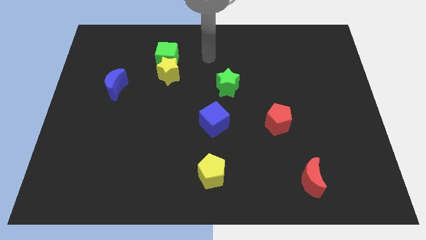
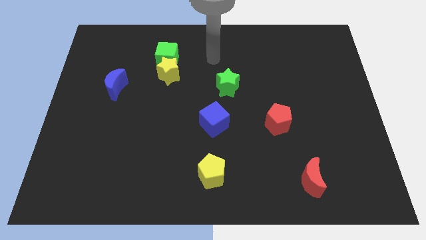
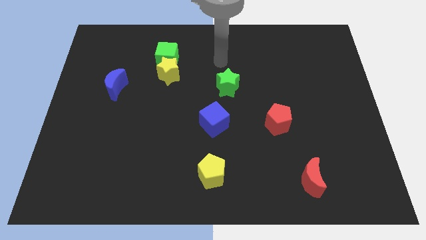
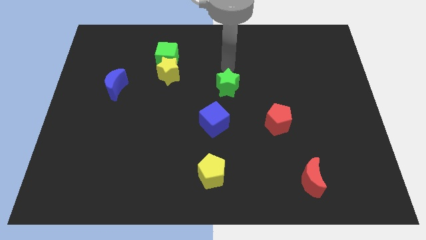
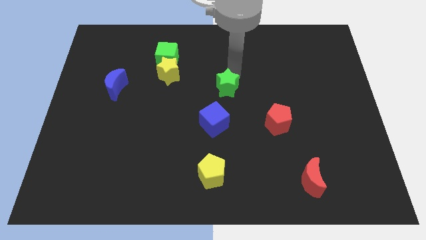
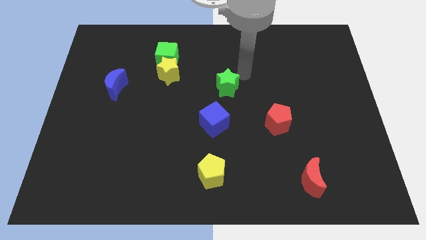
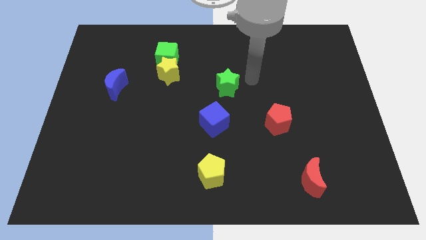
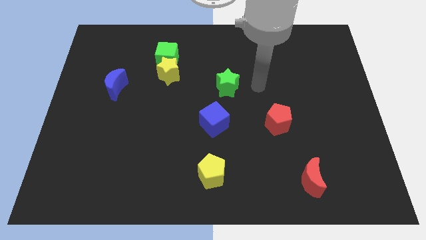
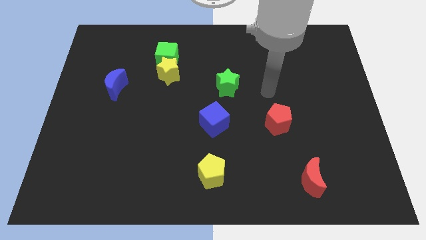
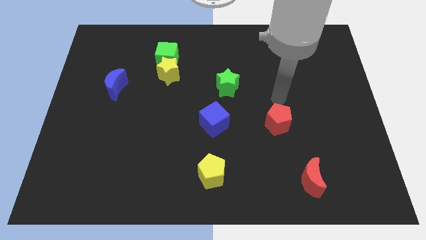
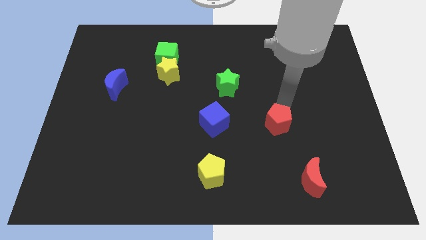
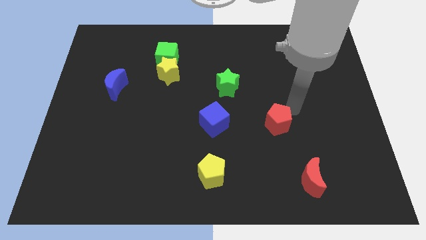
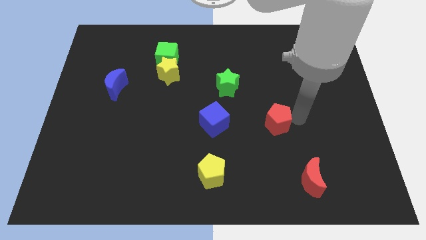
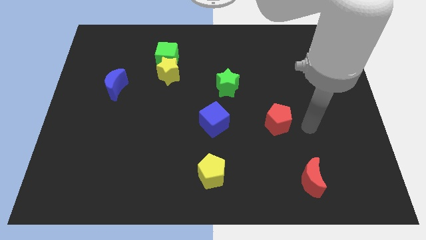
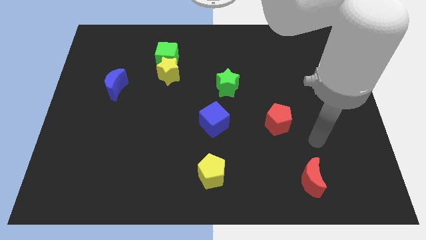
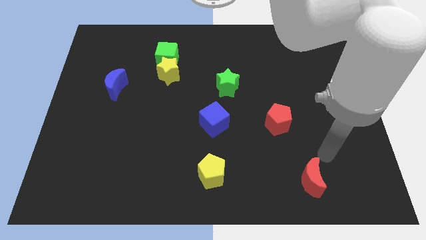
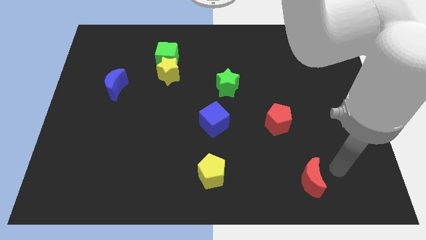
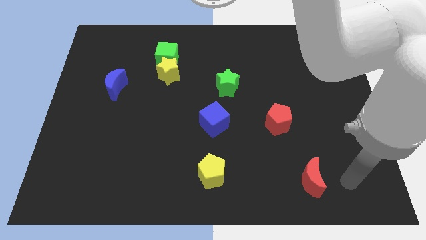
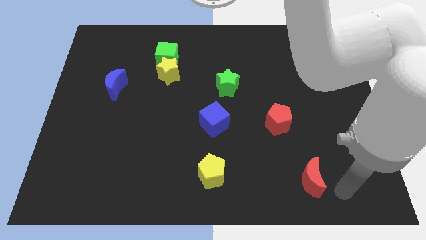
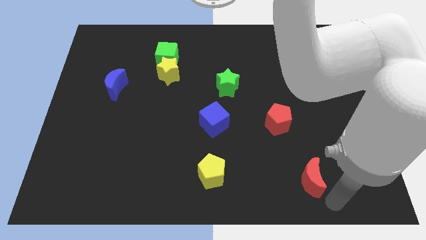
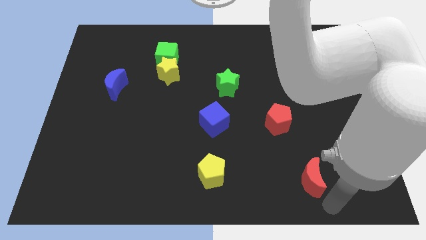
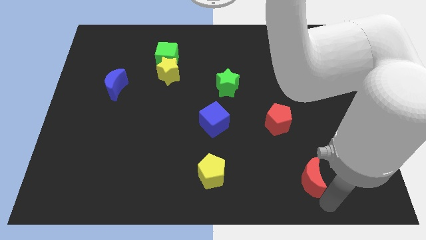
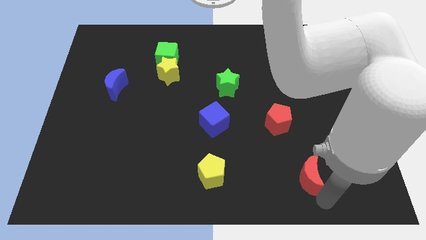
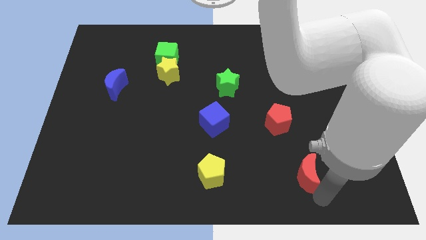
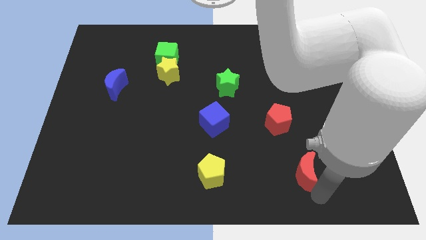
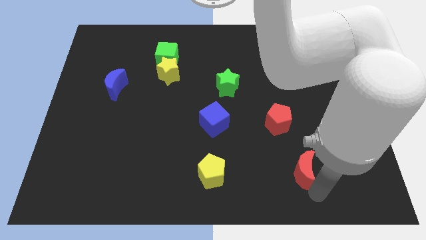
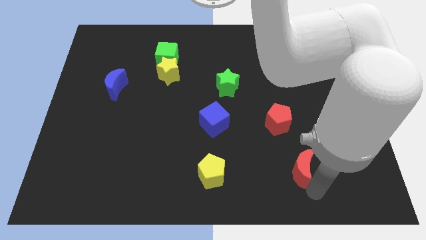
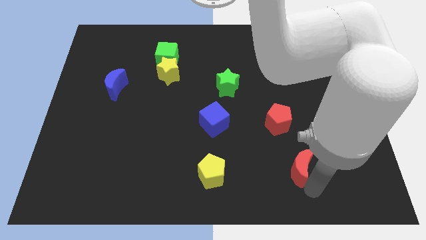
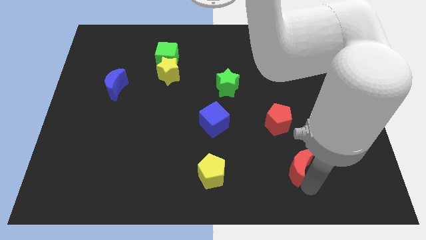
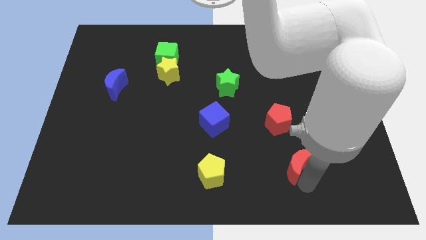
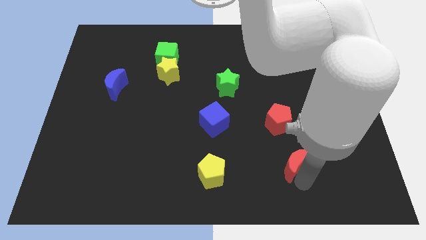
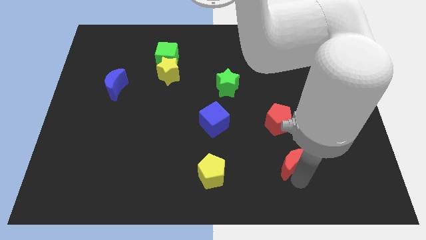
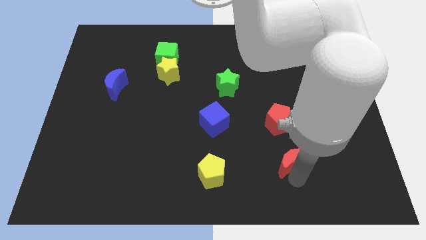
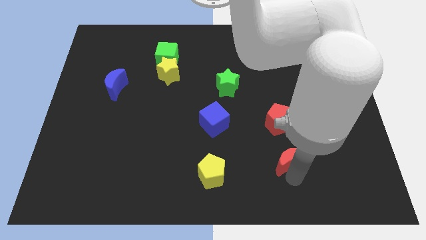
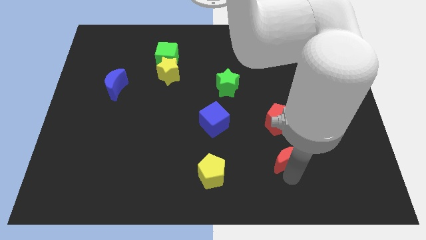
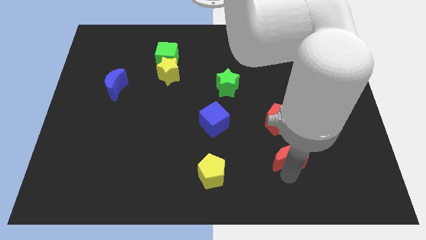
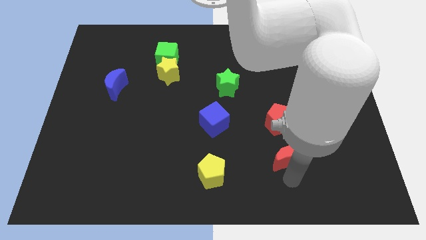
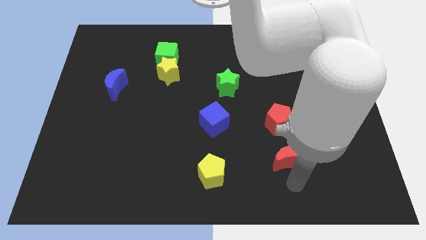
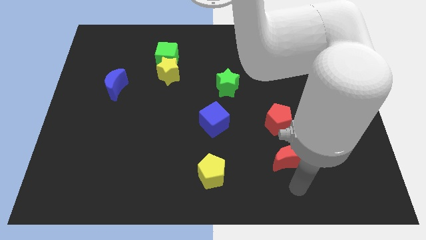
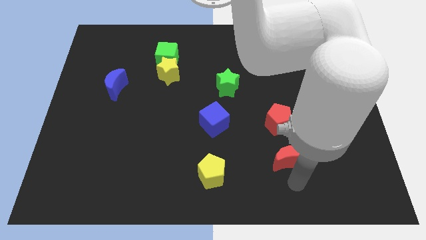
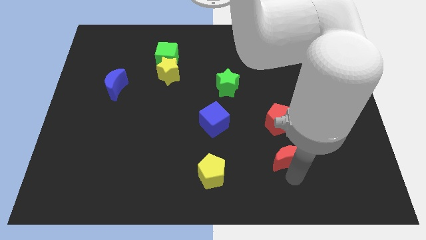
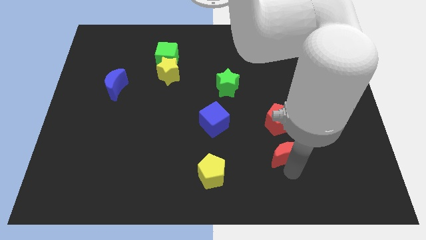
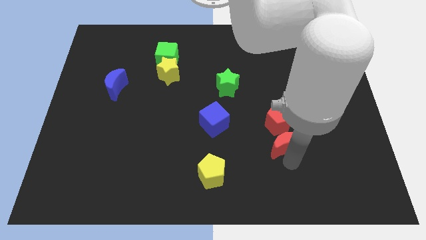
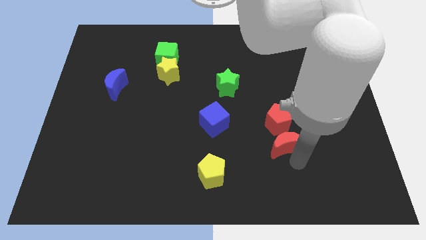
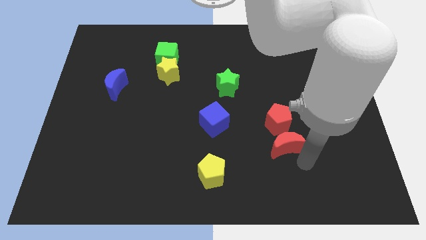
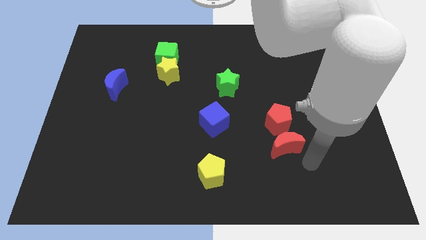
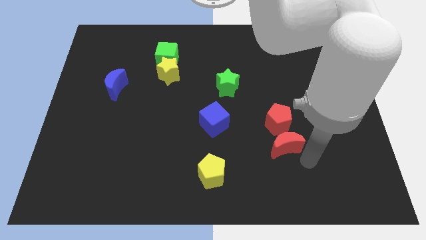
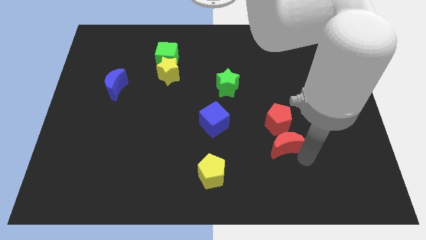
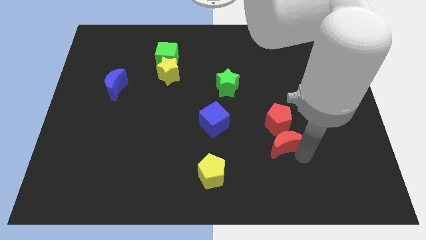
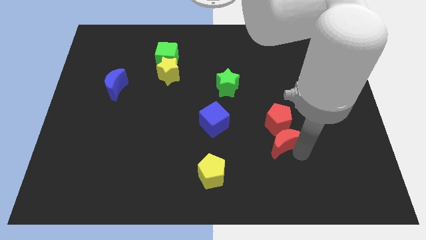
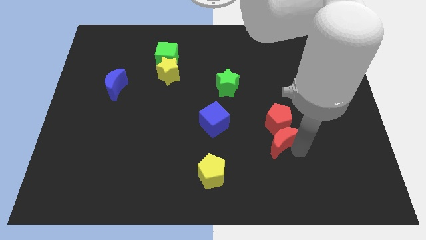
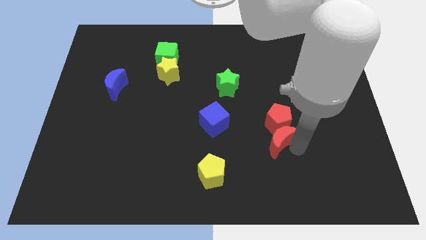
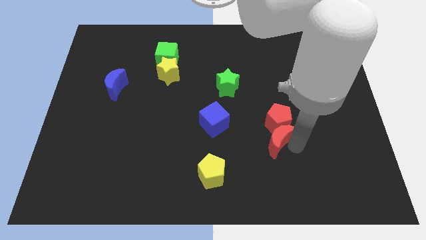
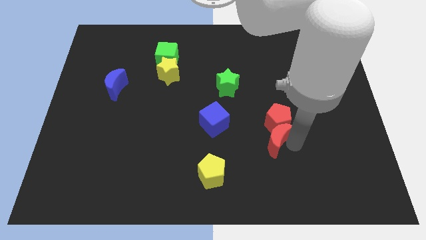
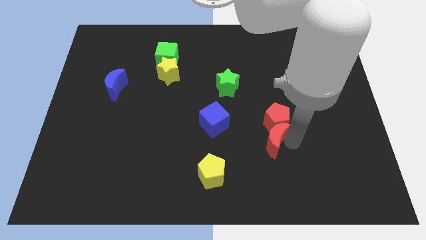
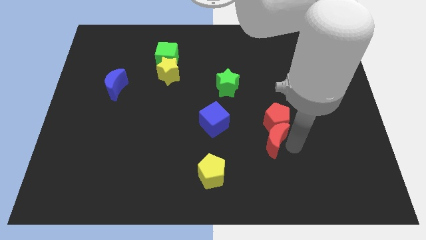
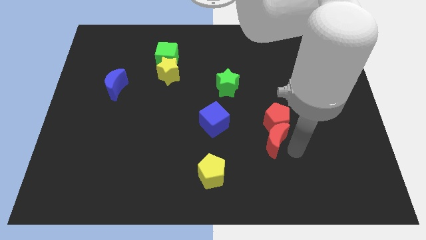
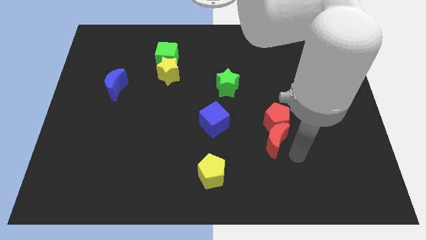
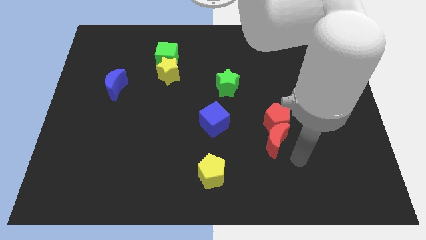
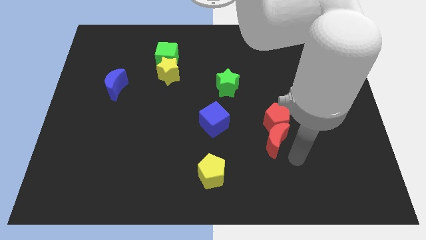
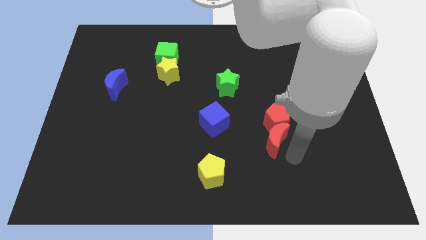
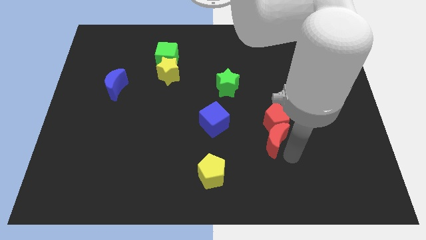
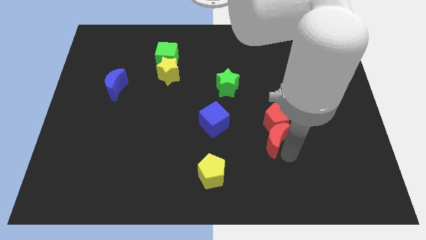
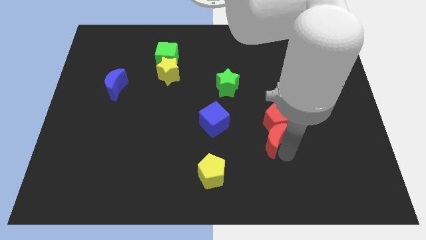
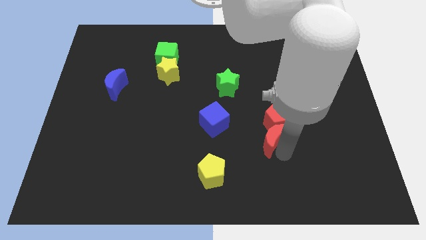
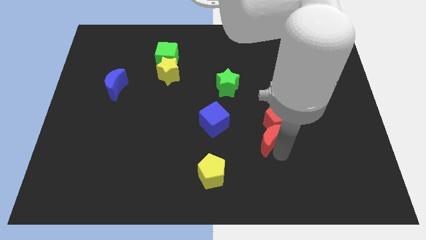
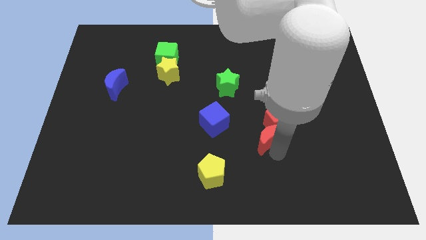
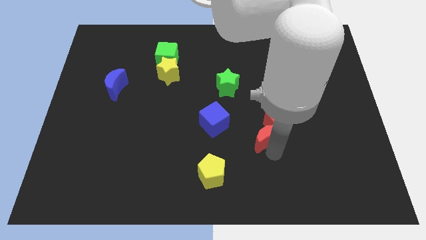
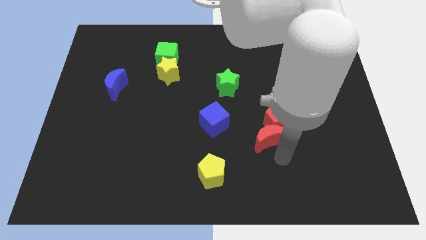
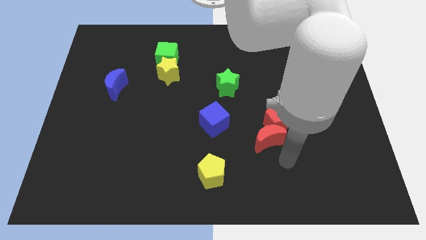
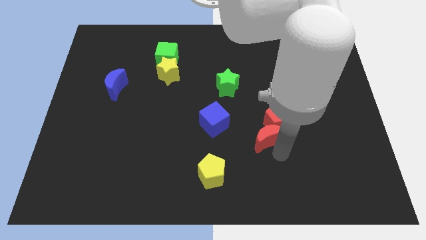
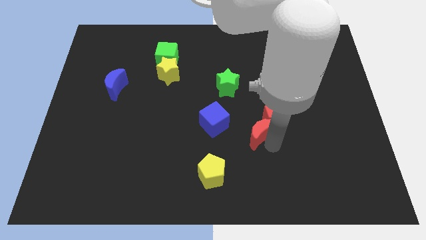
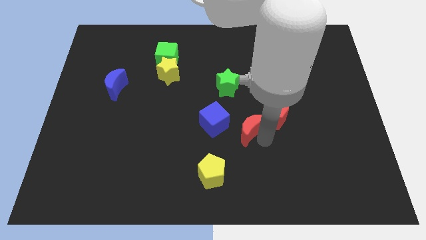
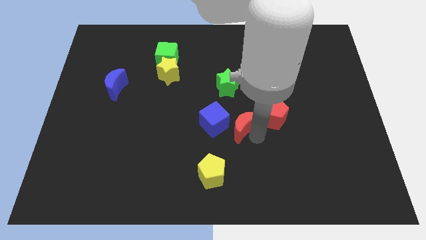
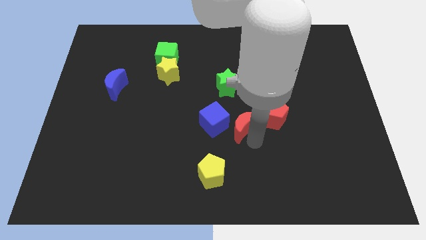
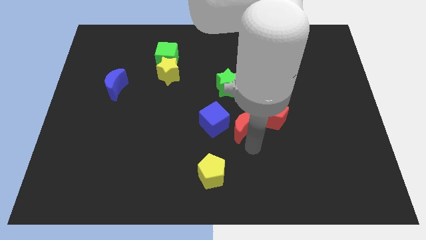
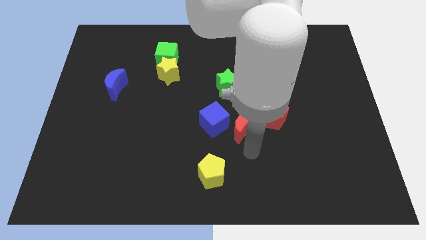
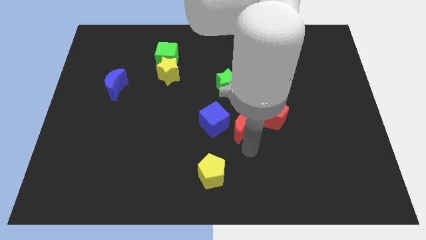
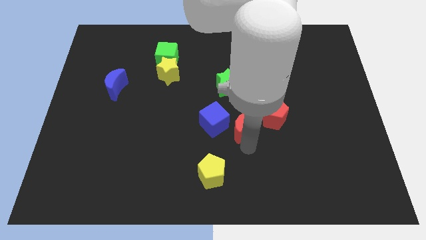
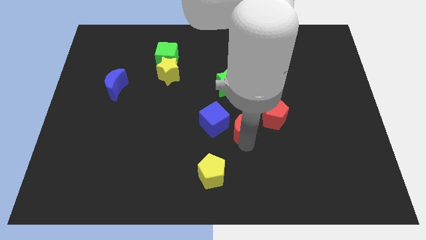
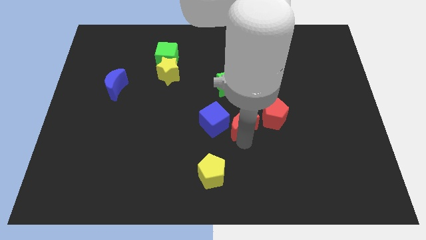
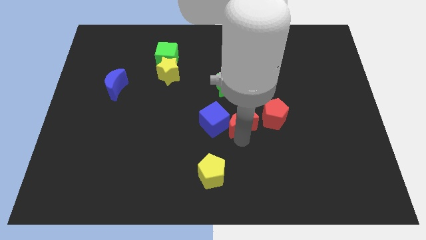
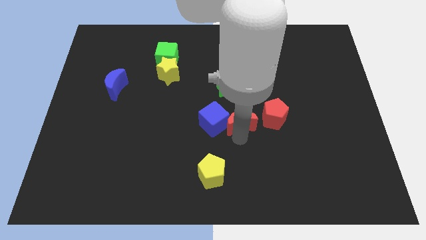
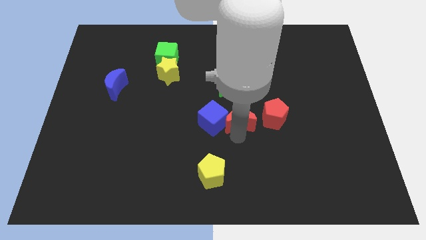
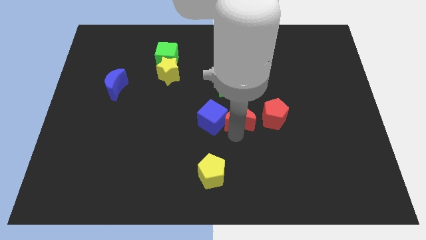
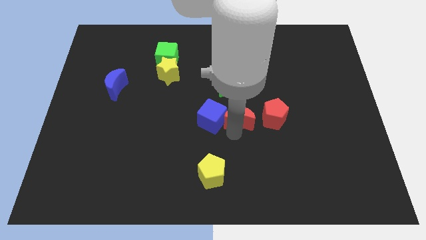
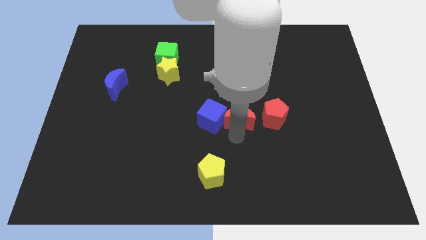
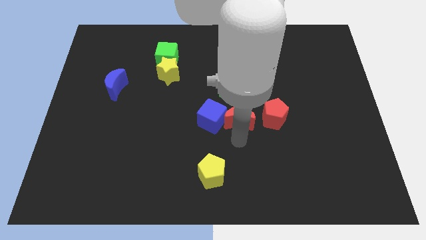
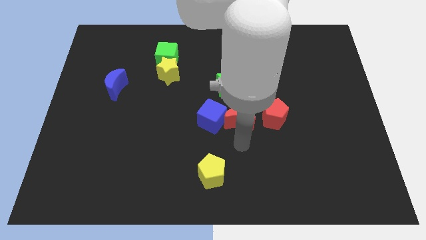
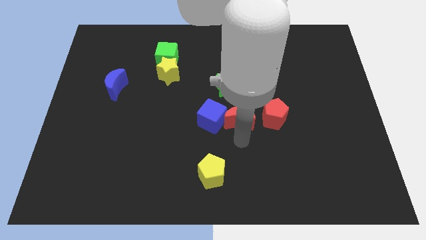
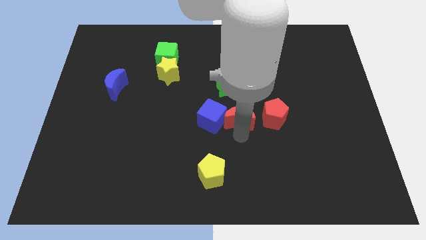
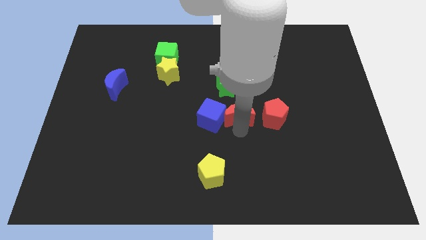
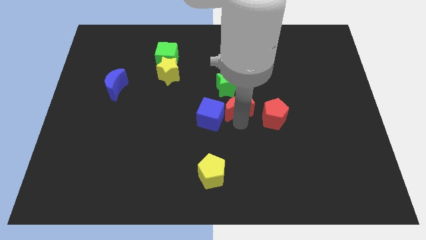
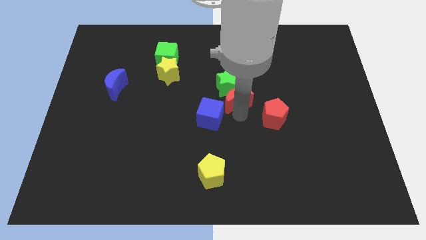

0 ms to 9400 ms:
push the red moon next to the green star
